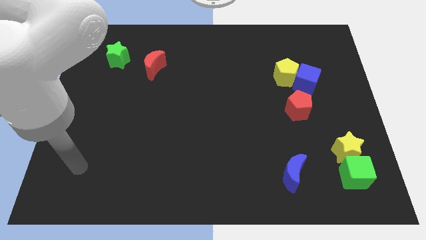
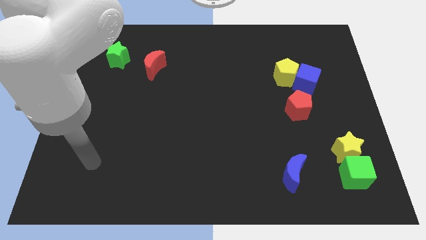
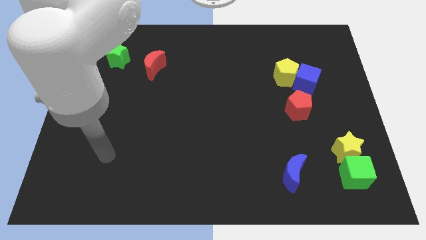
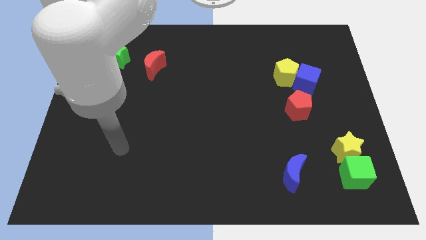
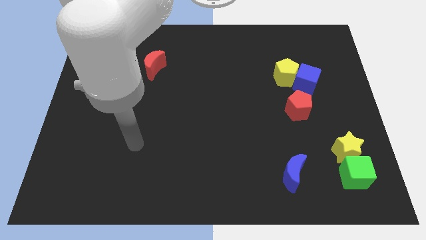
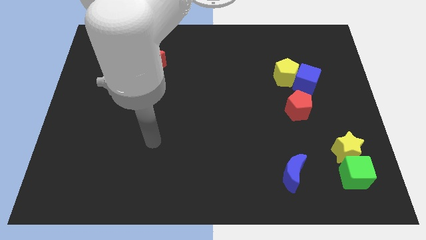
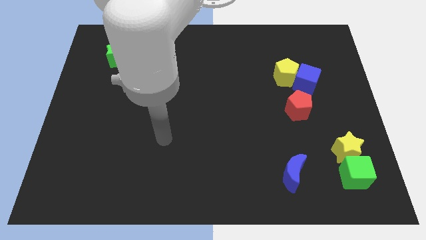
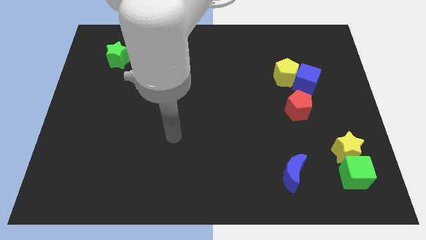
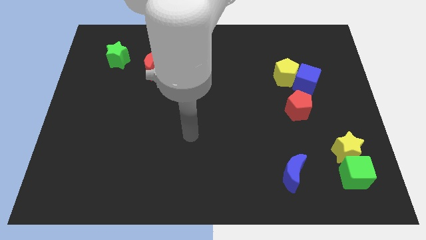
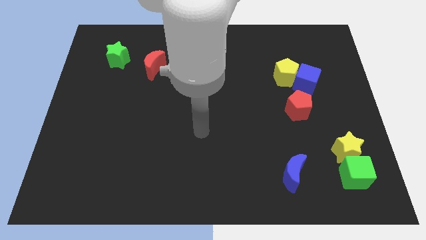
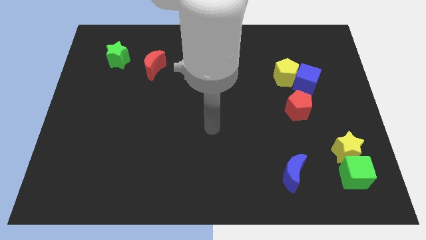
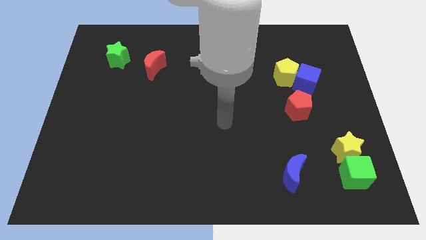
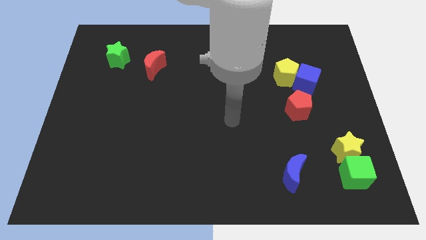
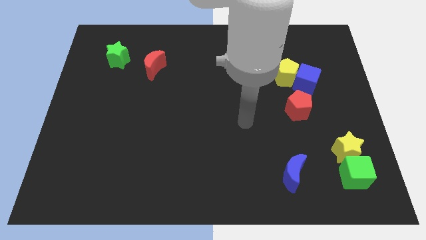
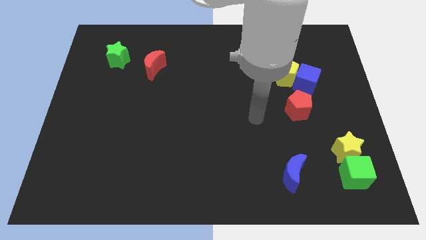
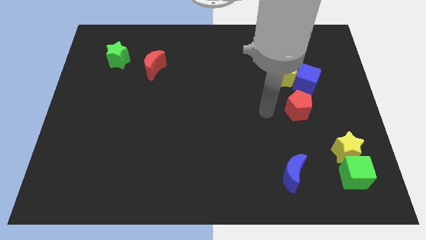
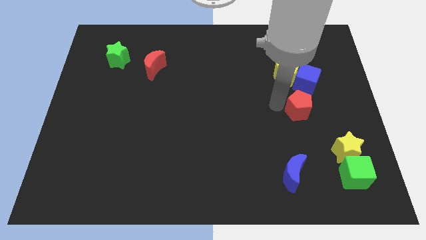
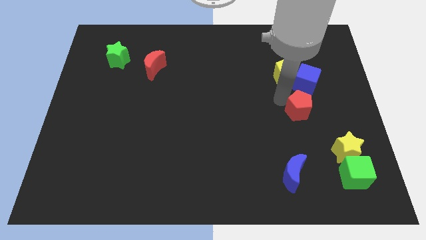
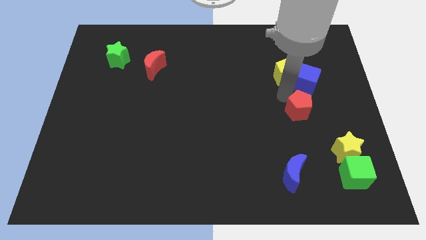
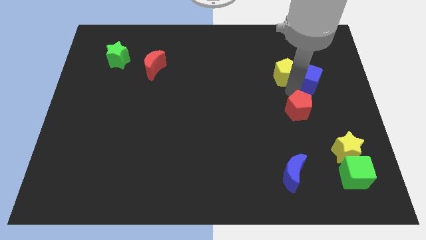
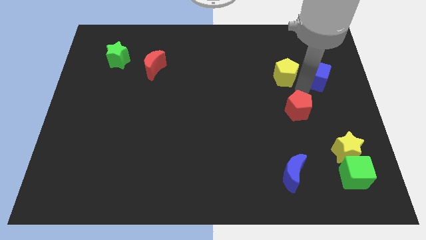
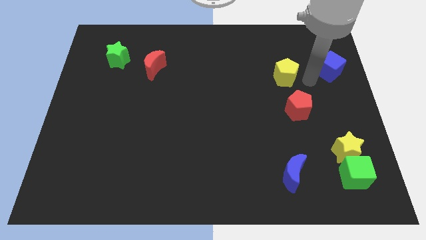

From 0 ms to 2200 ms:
move the yellow pentagon away from the blue cube

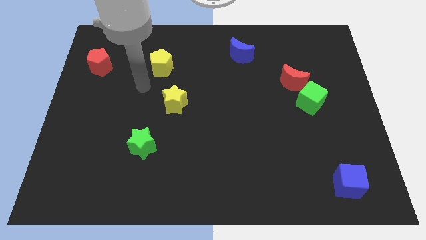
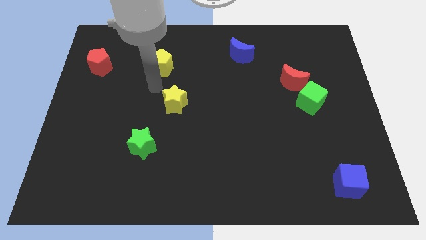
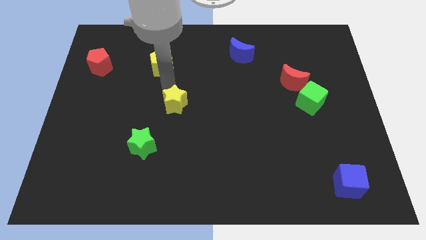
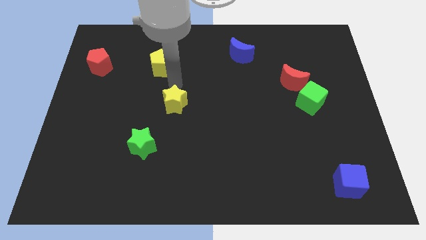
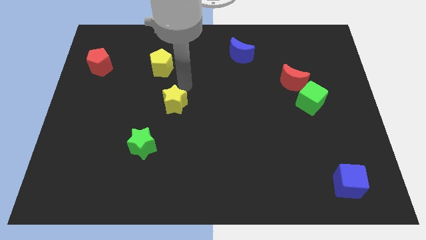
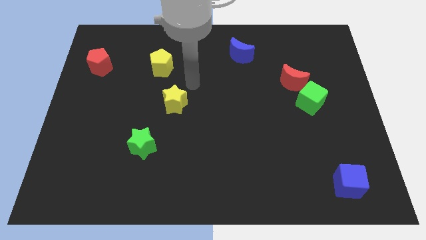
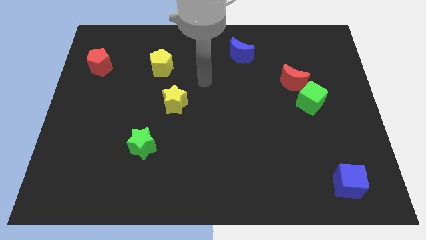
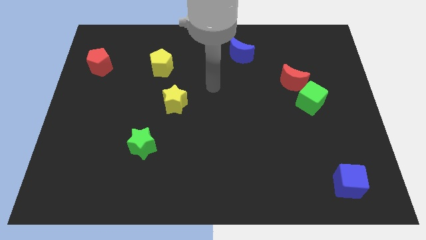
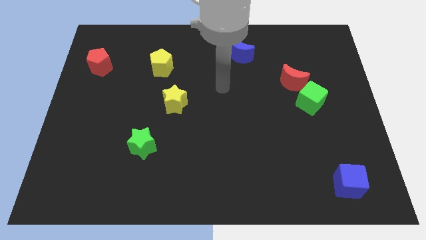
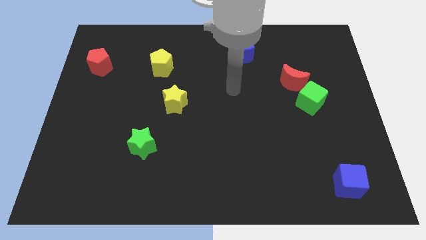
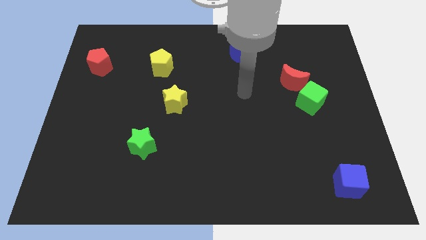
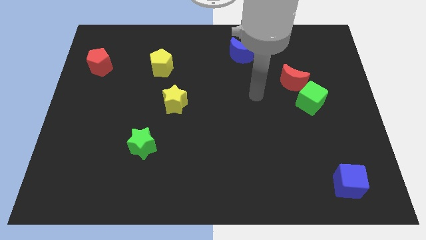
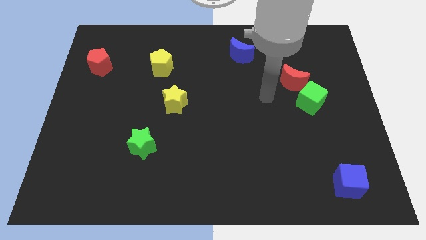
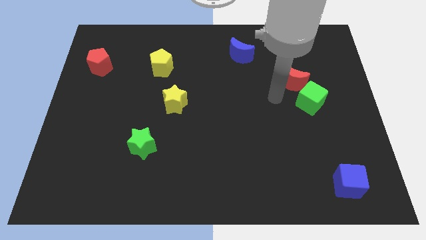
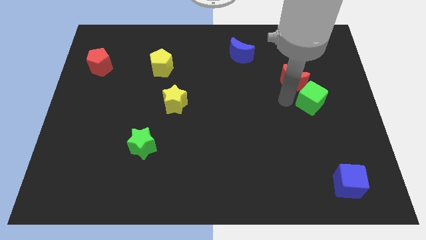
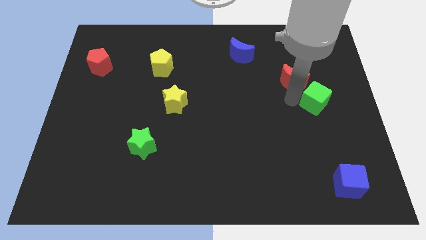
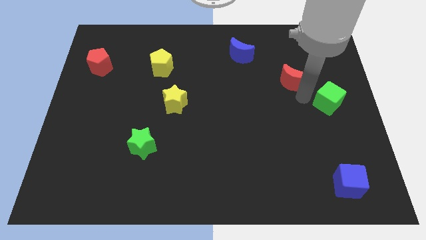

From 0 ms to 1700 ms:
separate the red moon from the green cube

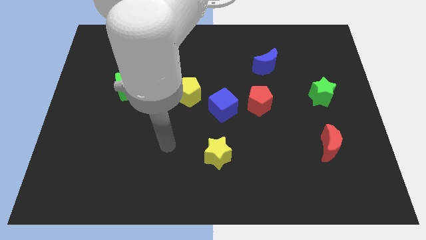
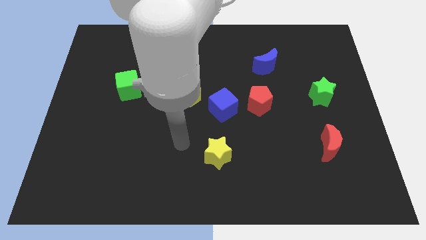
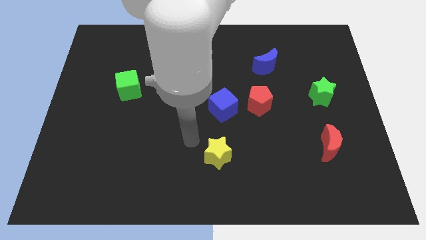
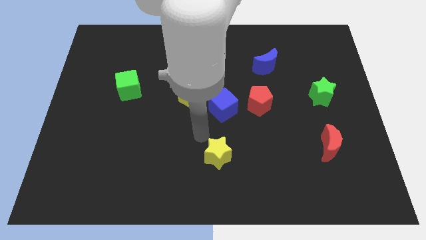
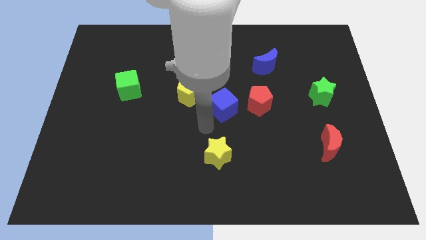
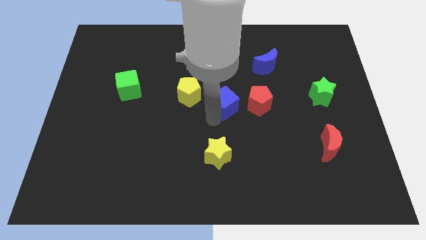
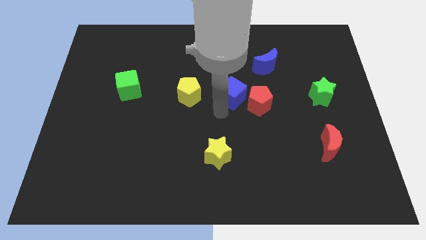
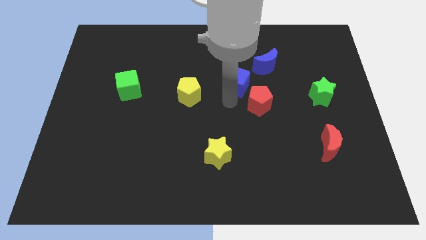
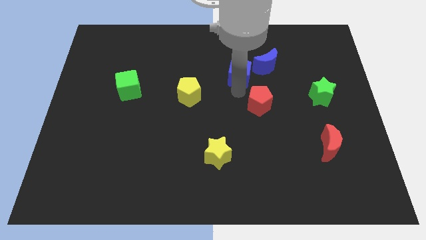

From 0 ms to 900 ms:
separate the red pentagon from the blue cube

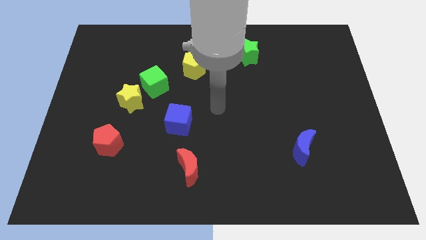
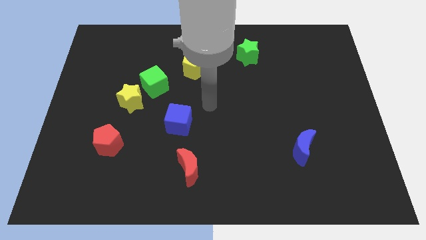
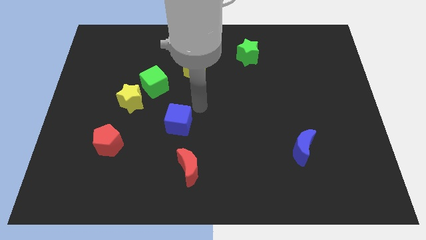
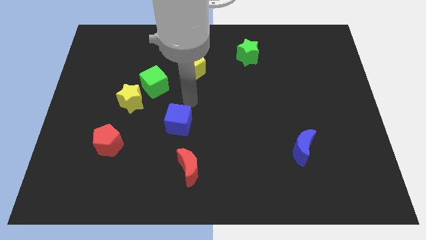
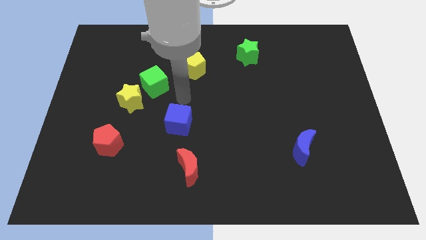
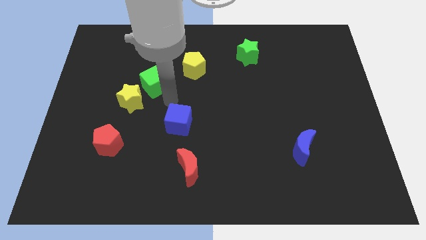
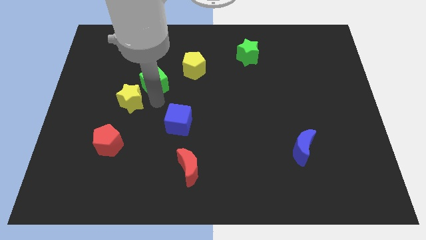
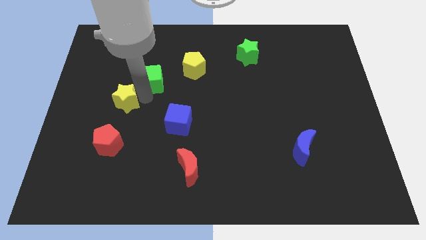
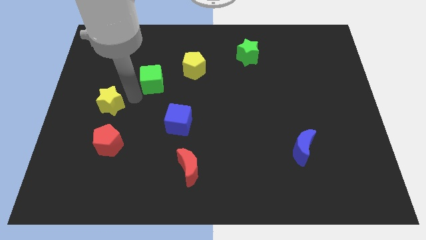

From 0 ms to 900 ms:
separate the green cube from the yellow star

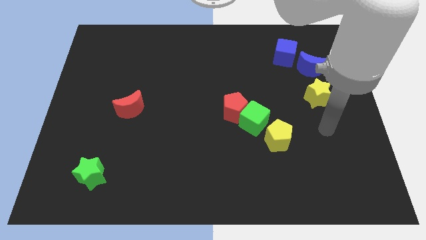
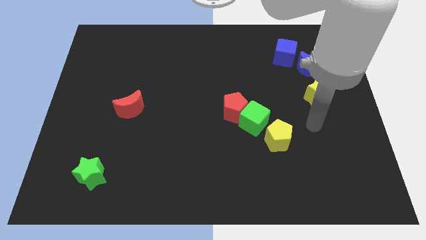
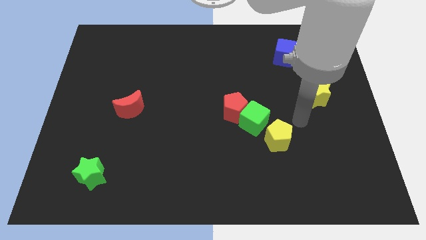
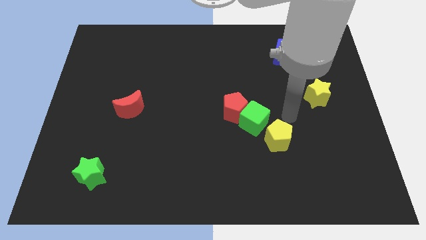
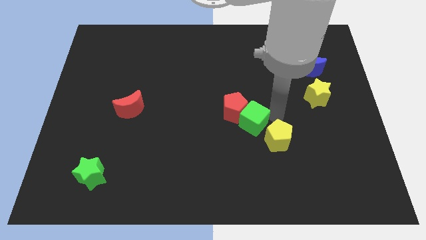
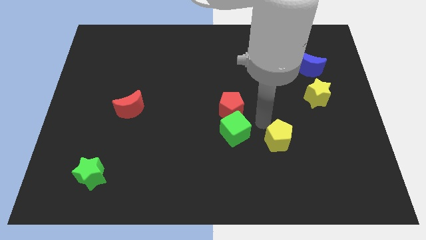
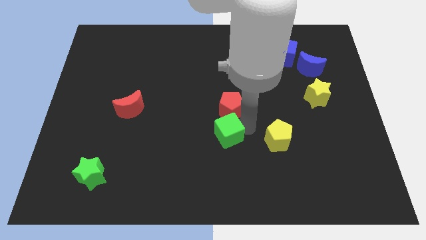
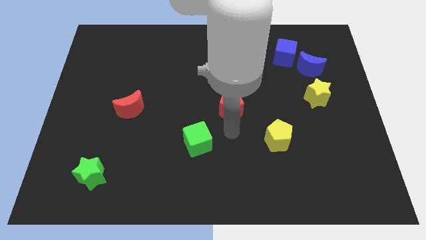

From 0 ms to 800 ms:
separate the red pentagon from the green cube

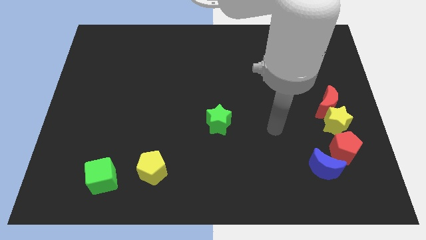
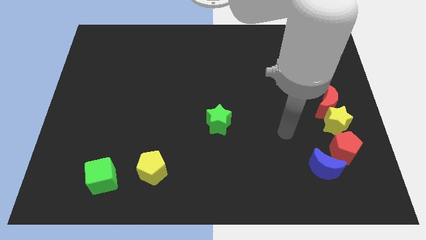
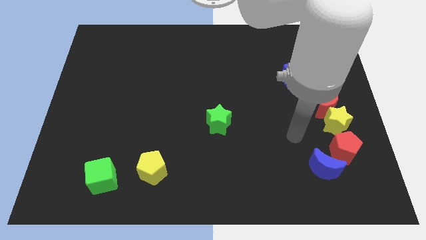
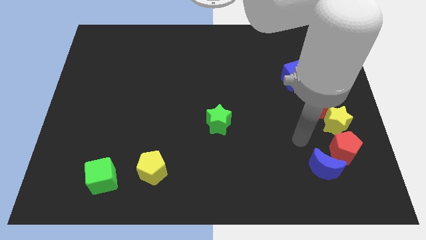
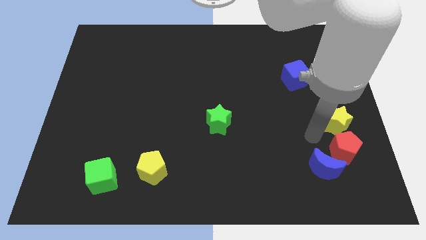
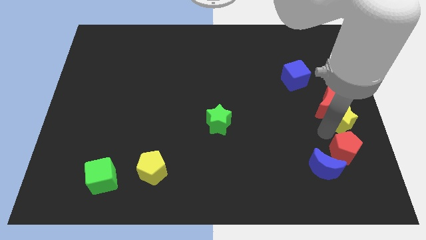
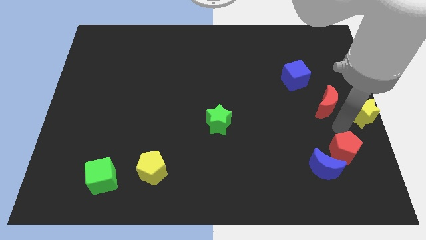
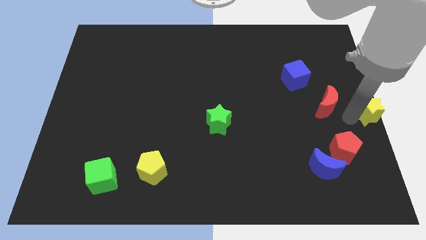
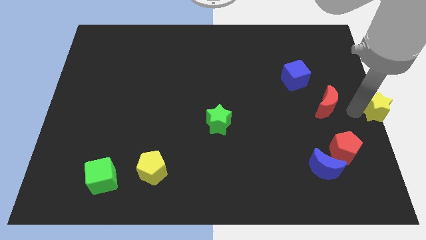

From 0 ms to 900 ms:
move the red moon away from the yellow star

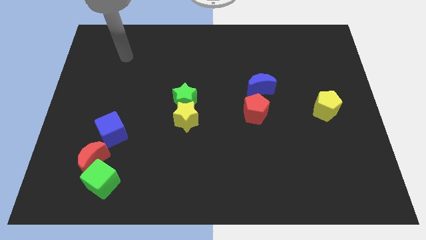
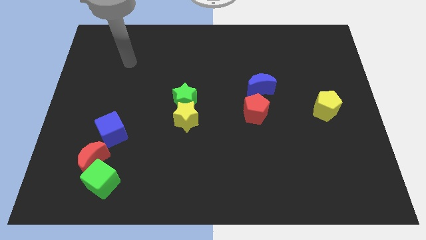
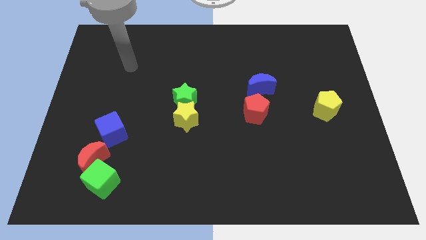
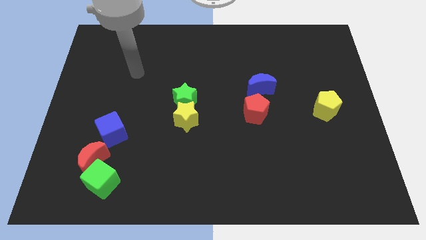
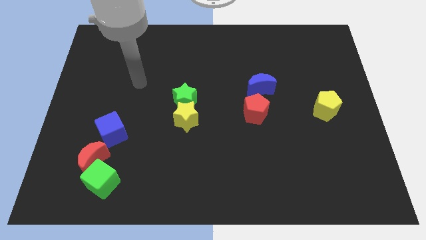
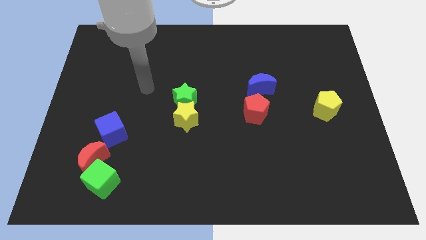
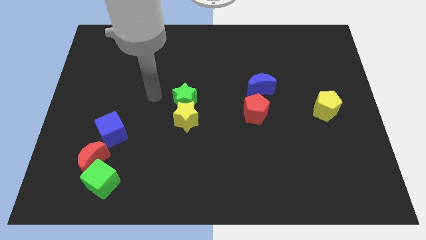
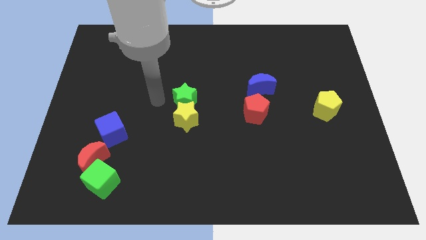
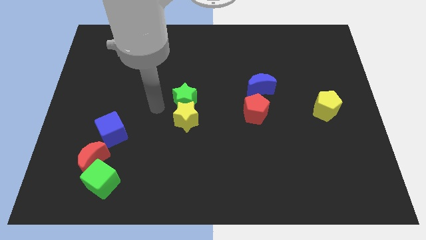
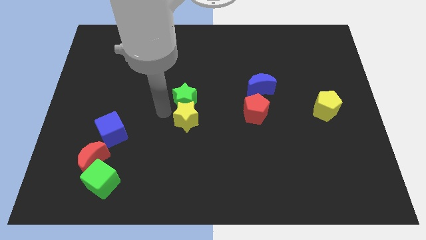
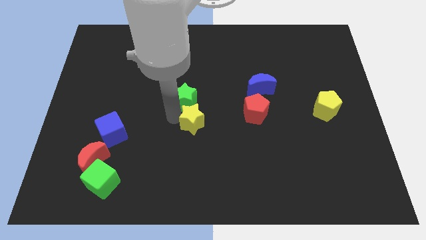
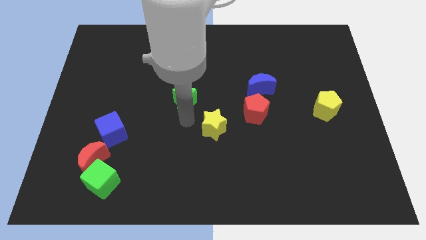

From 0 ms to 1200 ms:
separate the green star from the yellow star

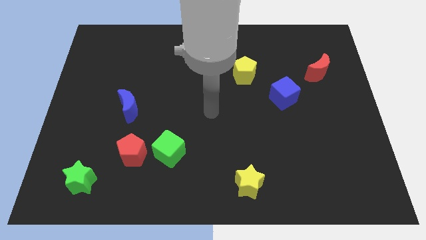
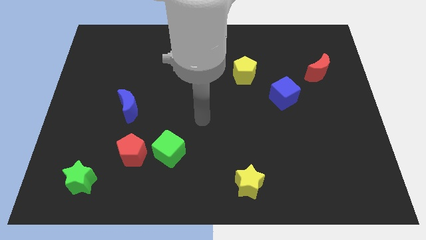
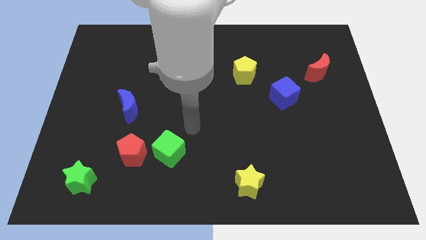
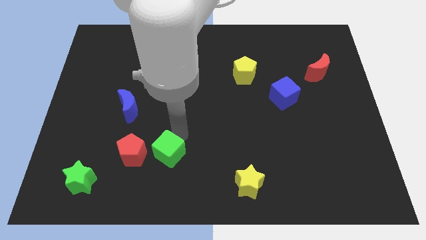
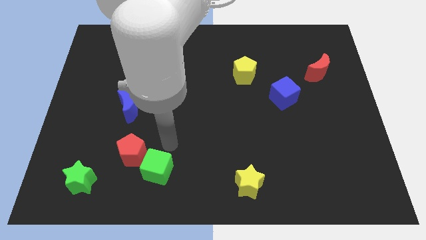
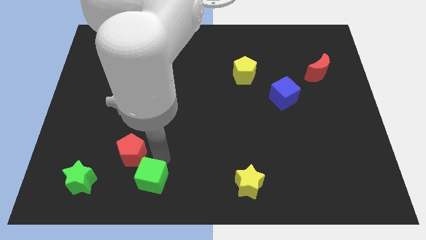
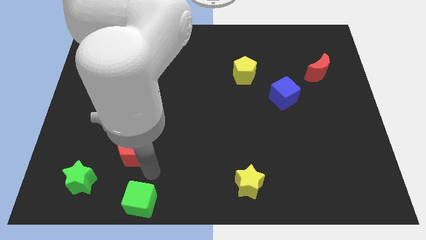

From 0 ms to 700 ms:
pull the red pentagon apart from the green cube

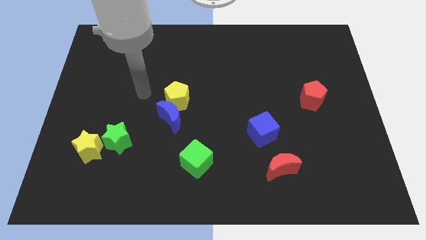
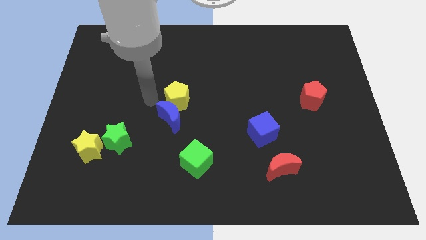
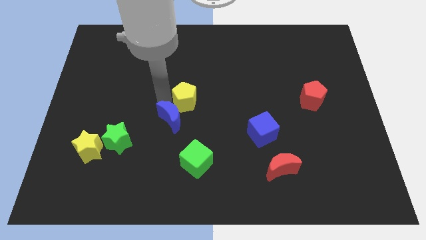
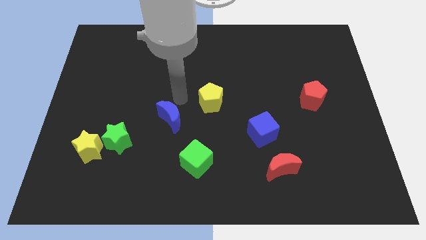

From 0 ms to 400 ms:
separate the blue moon from the yellow pentagon
